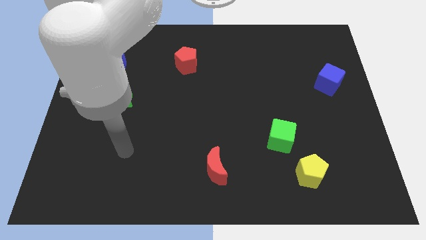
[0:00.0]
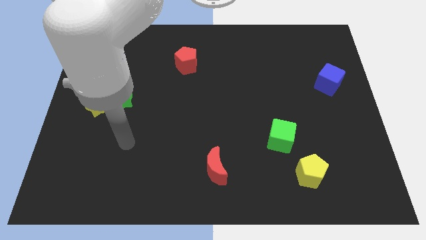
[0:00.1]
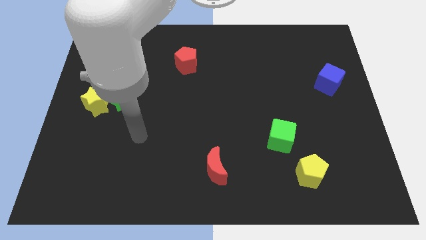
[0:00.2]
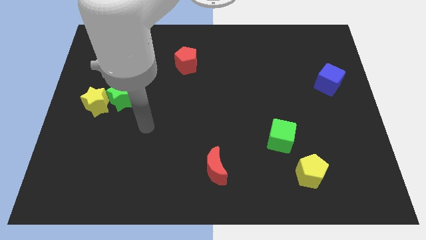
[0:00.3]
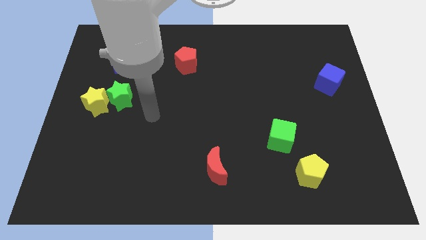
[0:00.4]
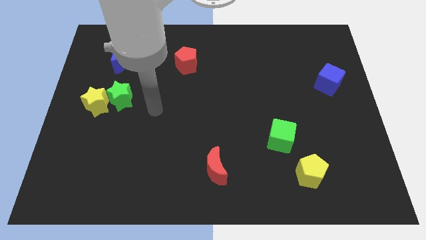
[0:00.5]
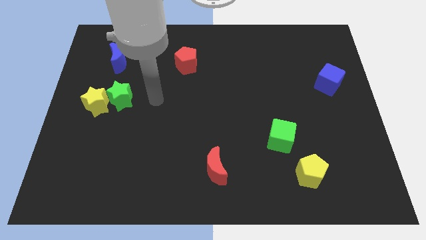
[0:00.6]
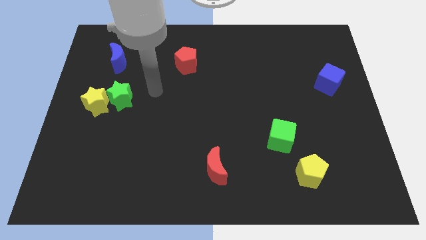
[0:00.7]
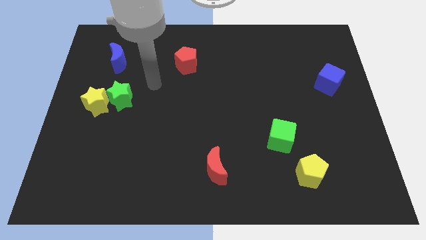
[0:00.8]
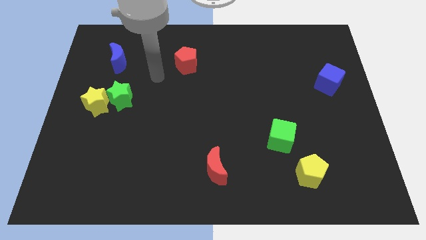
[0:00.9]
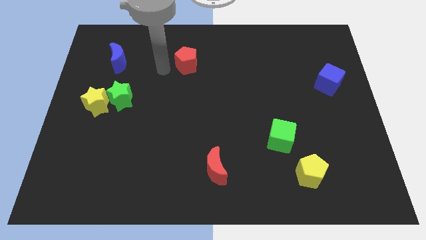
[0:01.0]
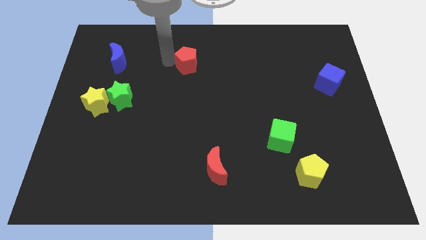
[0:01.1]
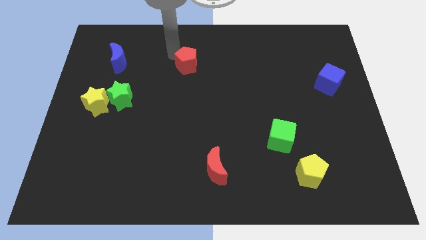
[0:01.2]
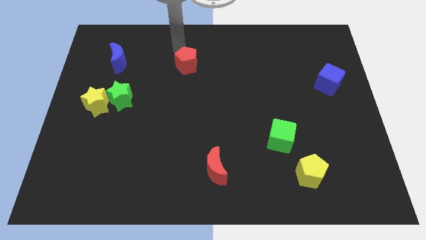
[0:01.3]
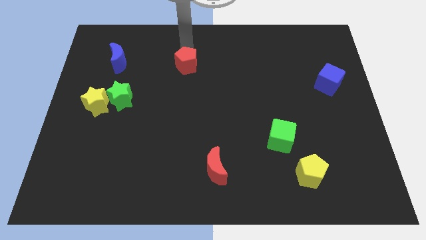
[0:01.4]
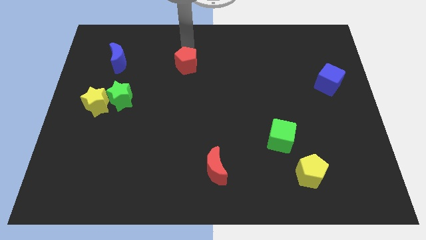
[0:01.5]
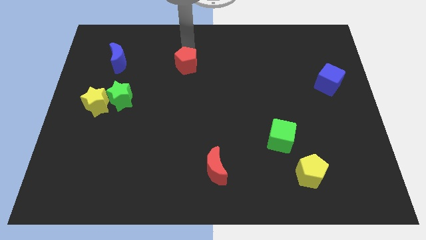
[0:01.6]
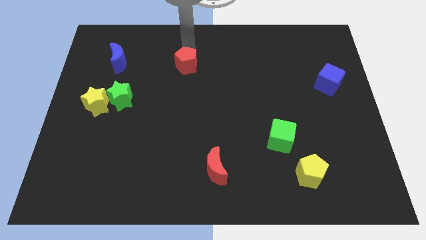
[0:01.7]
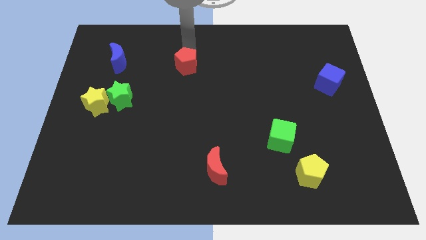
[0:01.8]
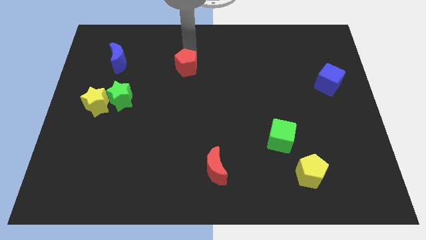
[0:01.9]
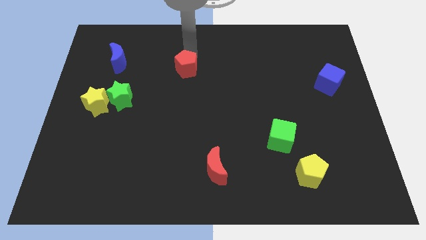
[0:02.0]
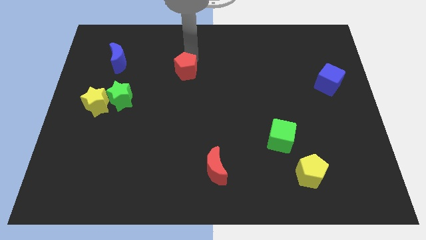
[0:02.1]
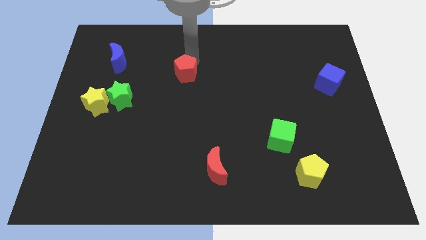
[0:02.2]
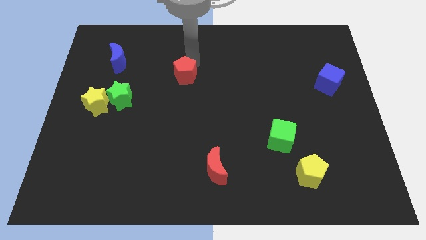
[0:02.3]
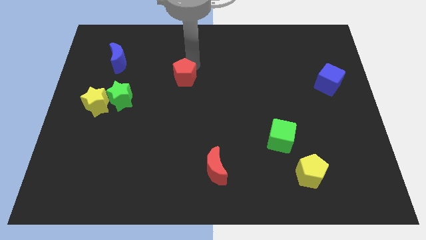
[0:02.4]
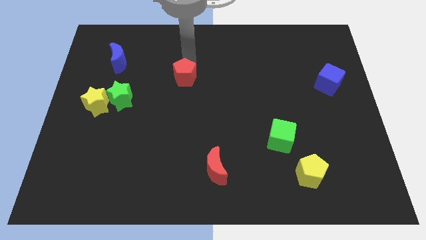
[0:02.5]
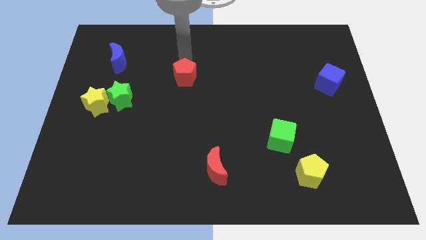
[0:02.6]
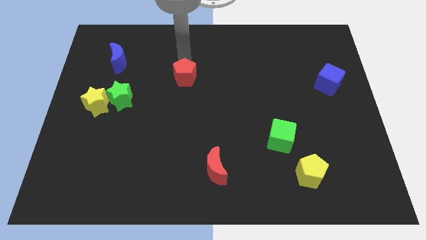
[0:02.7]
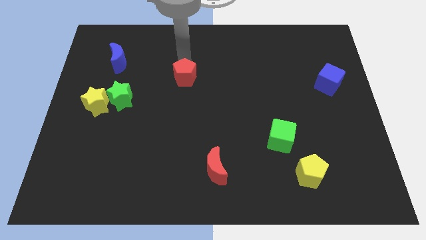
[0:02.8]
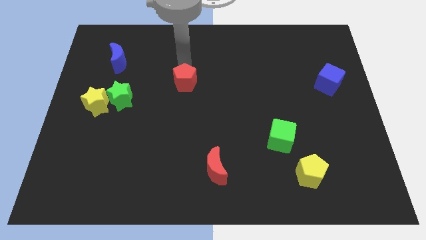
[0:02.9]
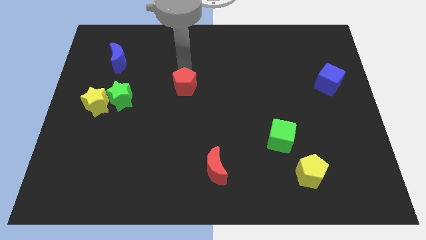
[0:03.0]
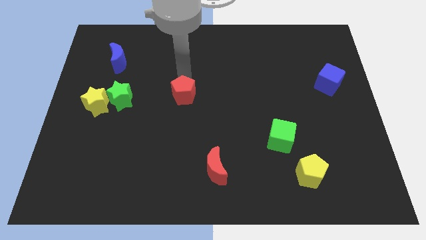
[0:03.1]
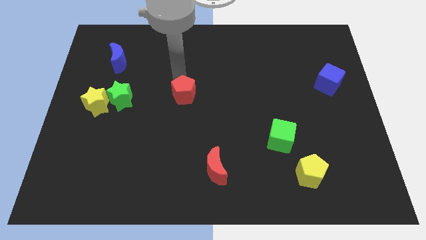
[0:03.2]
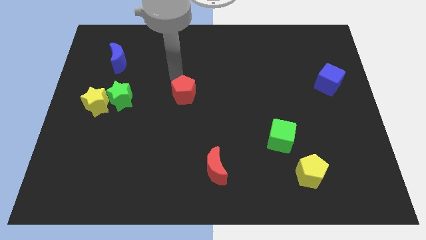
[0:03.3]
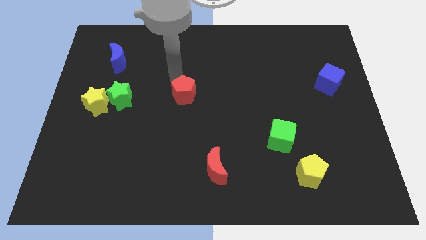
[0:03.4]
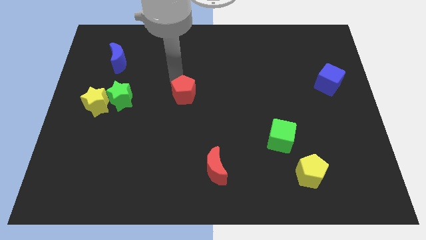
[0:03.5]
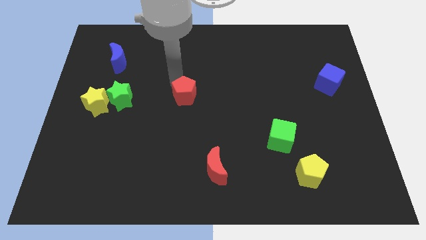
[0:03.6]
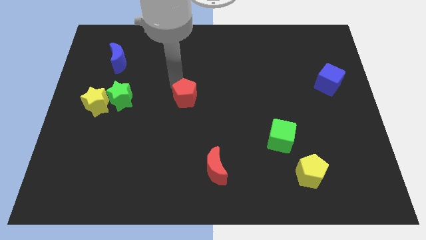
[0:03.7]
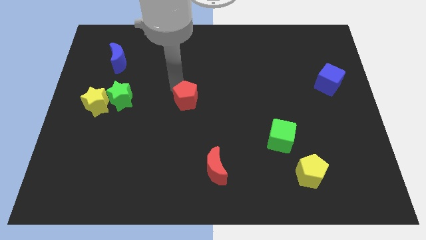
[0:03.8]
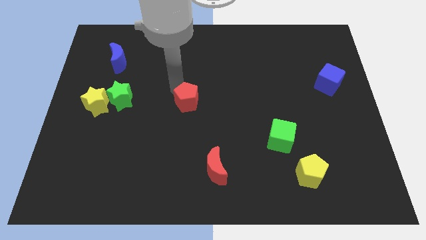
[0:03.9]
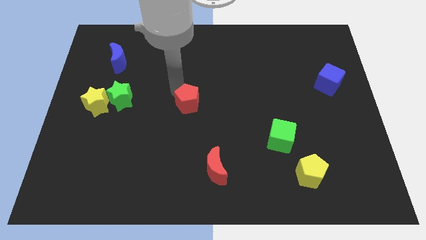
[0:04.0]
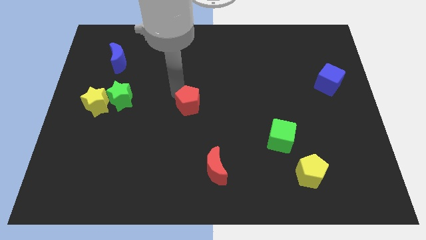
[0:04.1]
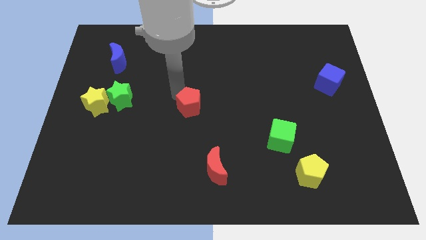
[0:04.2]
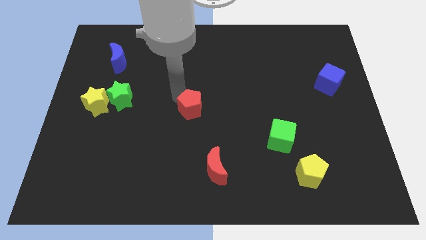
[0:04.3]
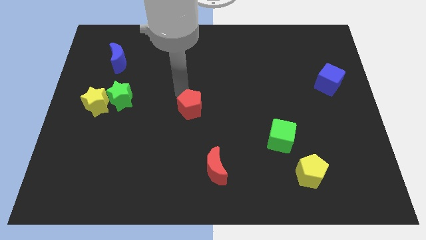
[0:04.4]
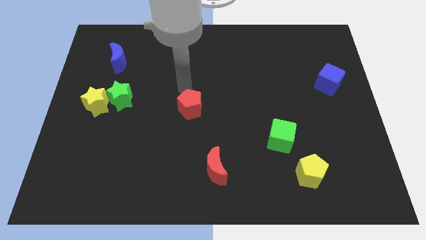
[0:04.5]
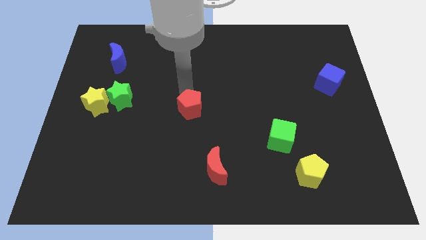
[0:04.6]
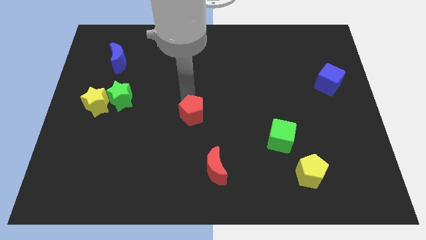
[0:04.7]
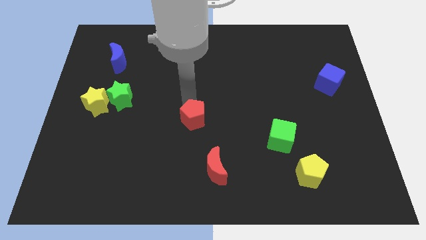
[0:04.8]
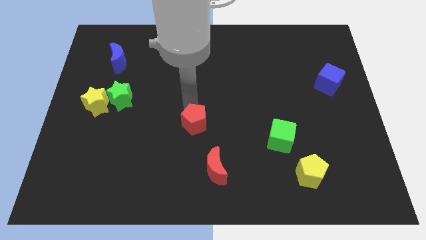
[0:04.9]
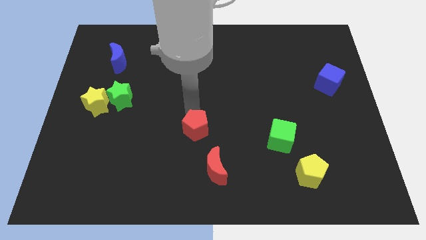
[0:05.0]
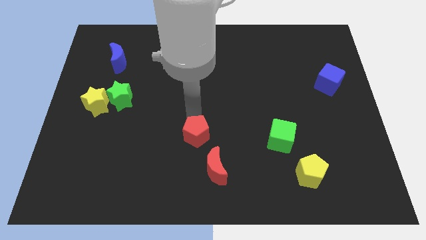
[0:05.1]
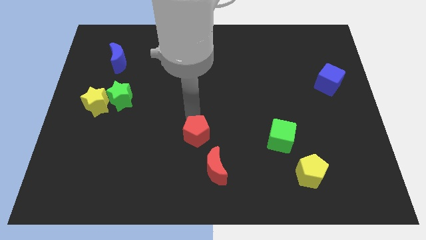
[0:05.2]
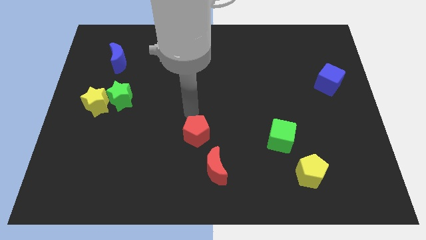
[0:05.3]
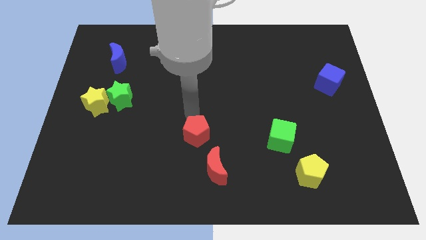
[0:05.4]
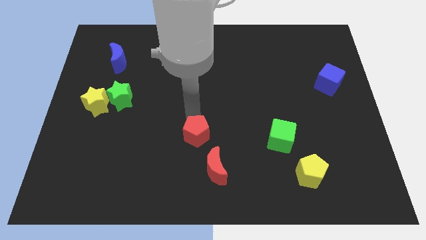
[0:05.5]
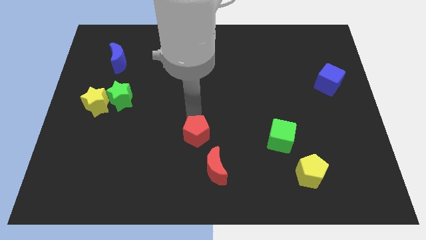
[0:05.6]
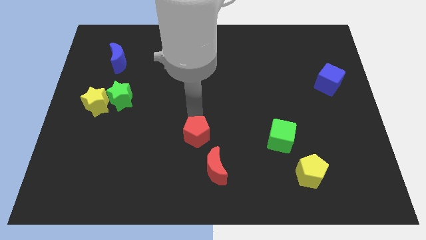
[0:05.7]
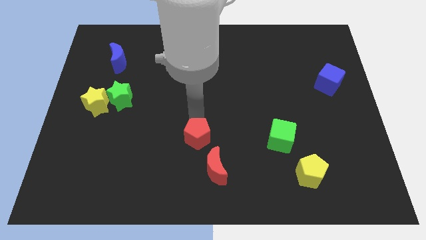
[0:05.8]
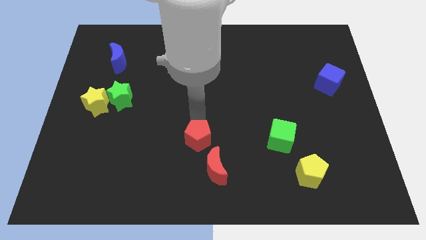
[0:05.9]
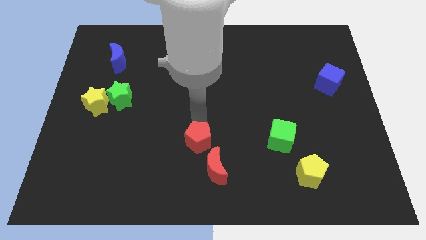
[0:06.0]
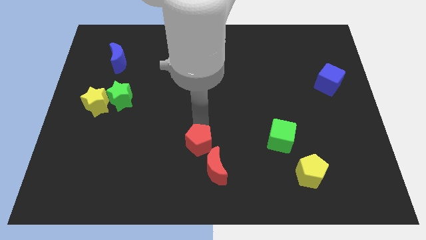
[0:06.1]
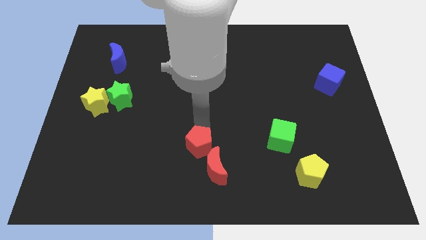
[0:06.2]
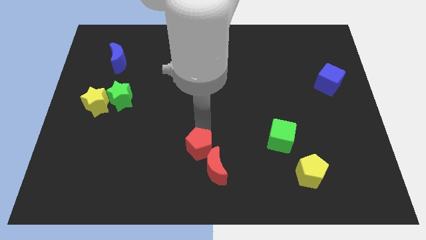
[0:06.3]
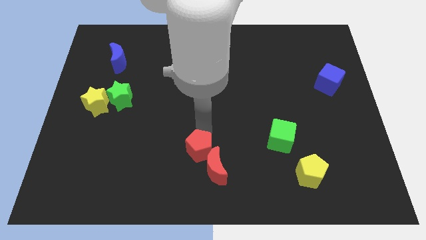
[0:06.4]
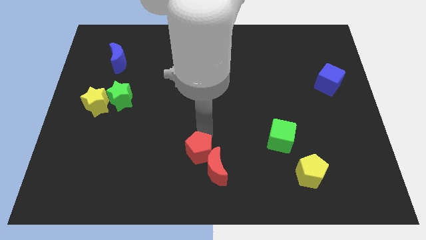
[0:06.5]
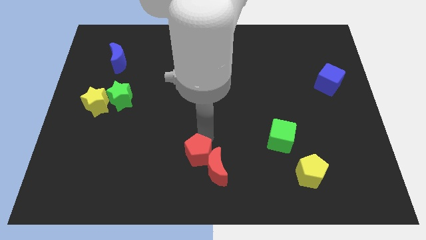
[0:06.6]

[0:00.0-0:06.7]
slide the red pentagon to the bottom side

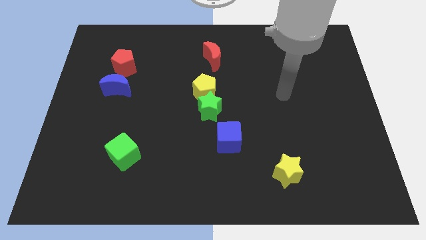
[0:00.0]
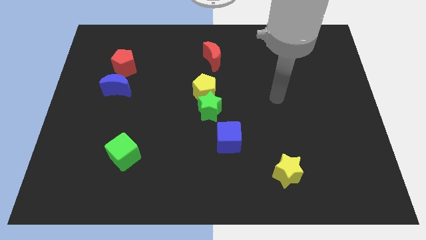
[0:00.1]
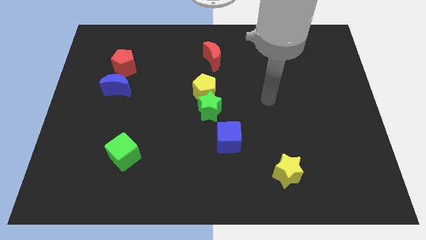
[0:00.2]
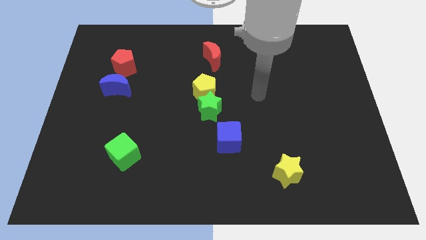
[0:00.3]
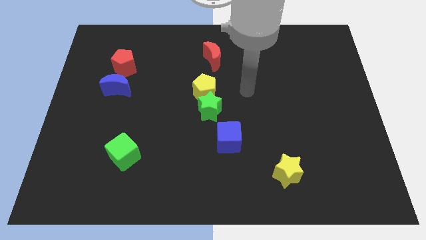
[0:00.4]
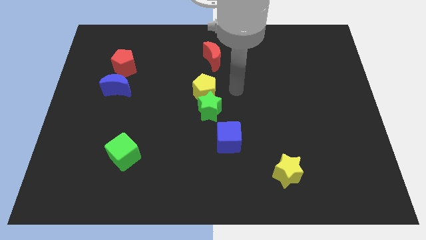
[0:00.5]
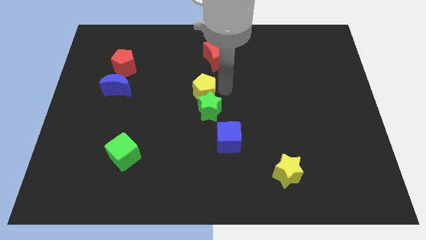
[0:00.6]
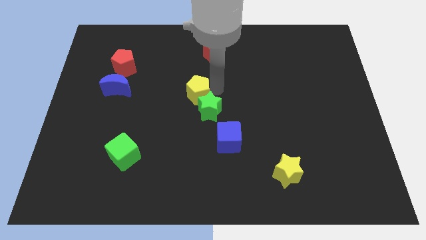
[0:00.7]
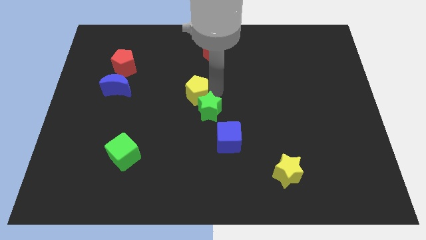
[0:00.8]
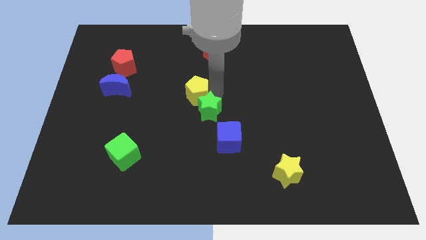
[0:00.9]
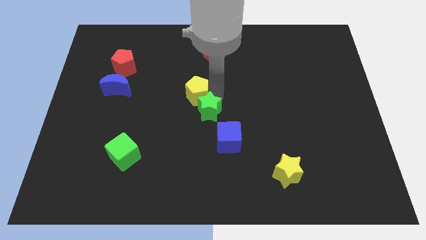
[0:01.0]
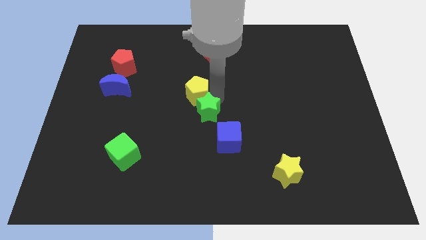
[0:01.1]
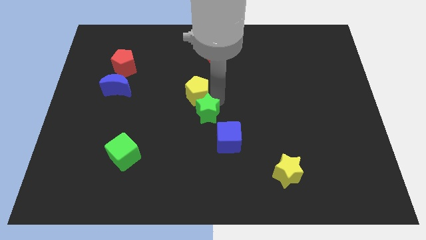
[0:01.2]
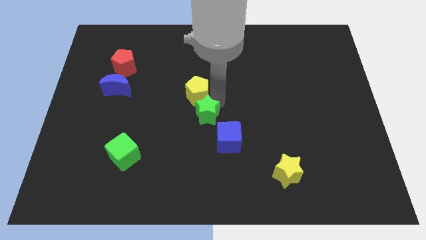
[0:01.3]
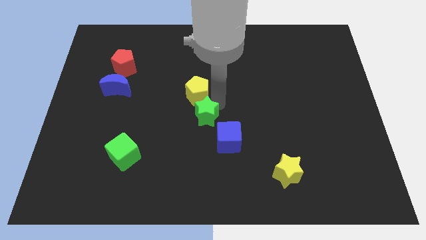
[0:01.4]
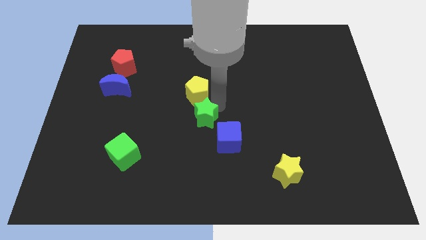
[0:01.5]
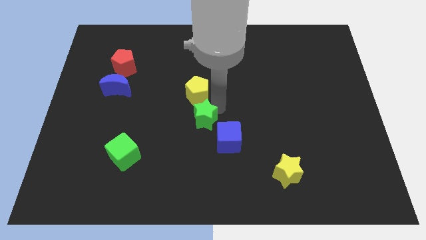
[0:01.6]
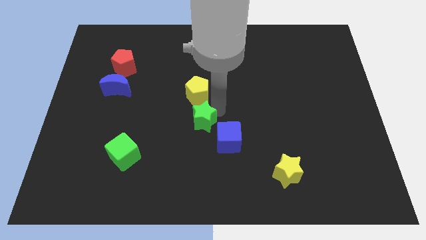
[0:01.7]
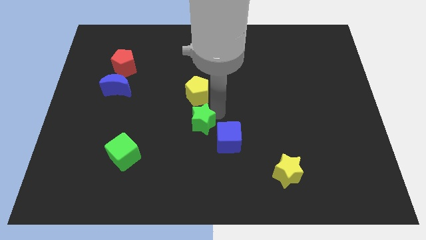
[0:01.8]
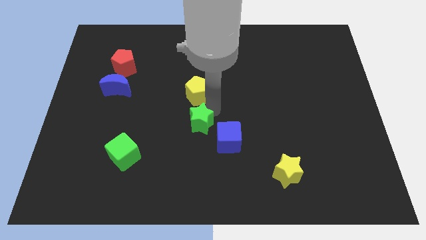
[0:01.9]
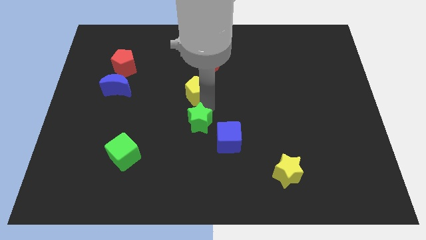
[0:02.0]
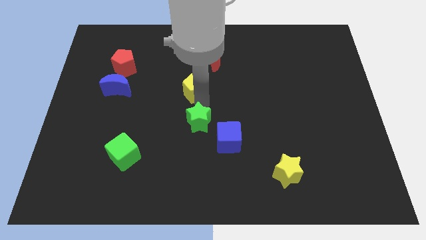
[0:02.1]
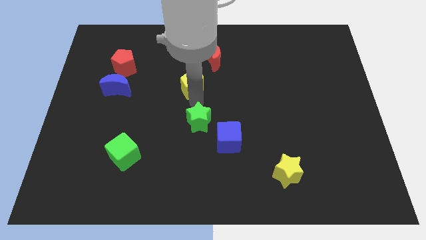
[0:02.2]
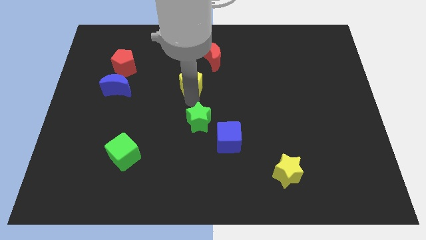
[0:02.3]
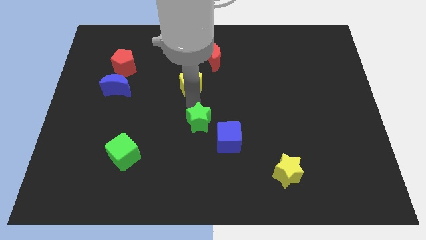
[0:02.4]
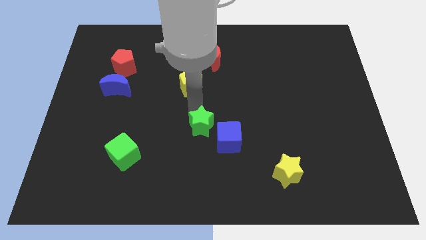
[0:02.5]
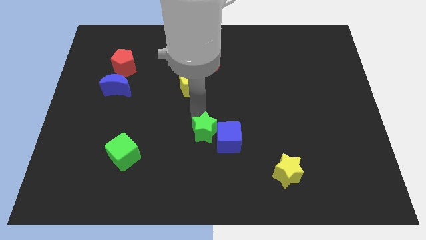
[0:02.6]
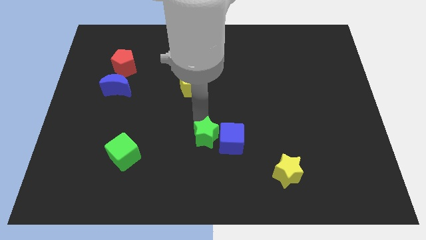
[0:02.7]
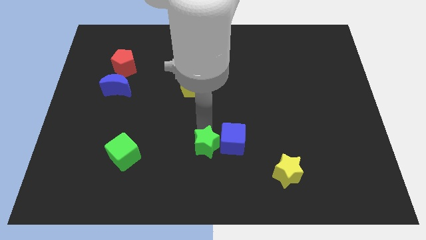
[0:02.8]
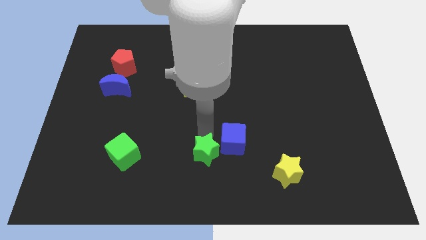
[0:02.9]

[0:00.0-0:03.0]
put the green star to the bottom side
